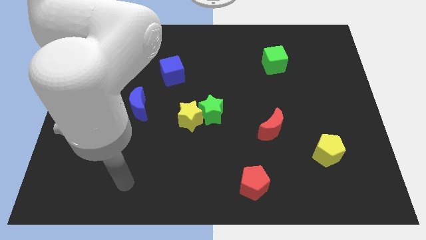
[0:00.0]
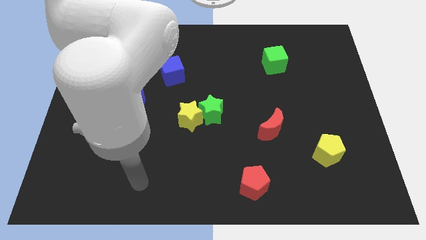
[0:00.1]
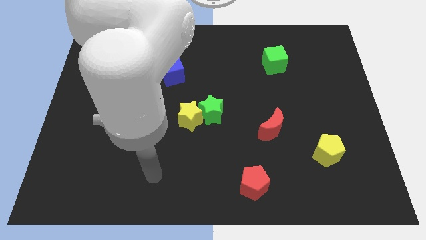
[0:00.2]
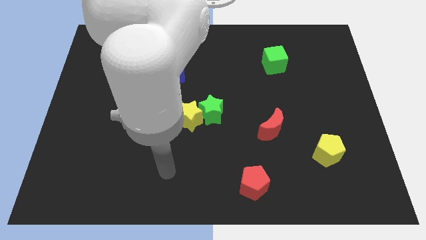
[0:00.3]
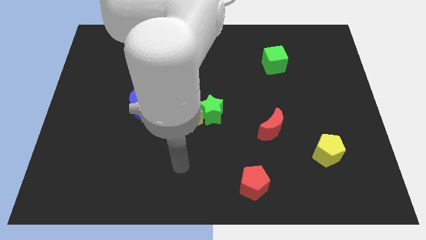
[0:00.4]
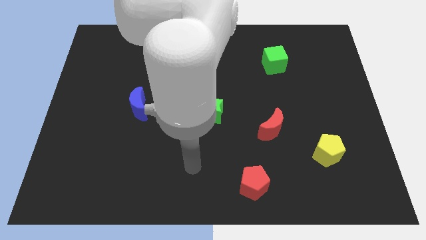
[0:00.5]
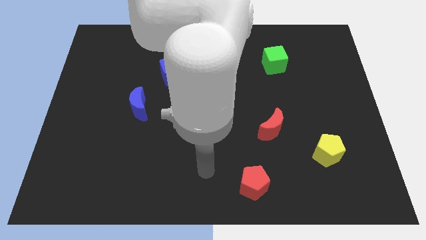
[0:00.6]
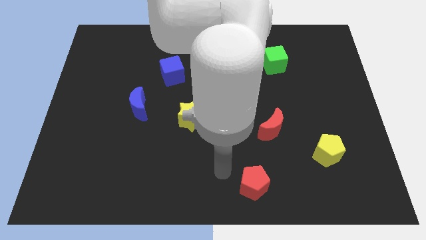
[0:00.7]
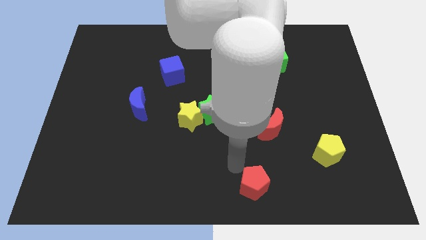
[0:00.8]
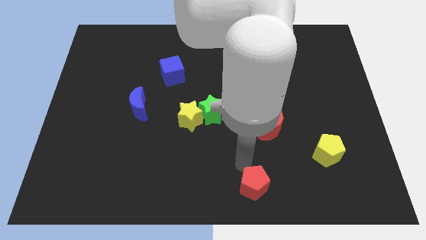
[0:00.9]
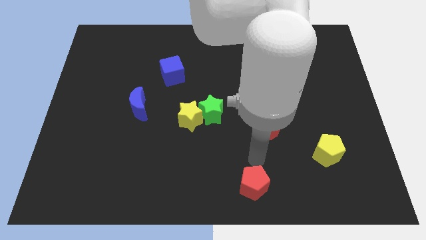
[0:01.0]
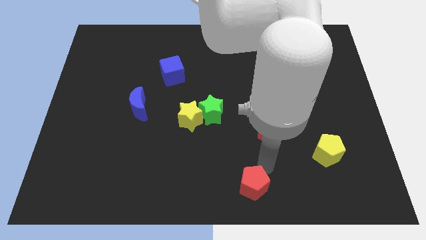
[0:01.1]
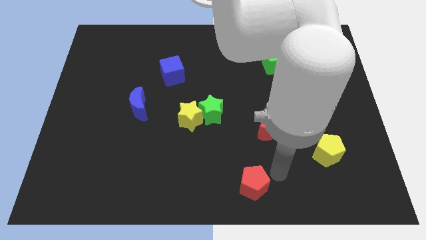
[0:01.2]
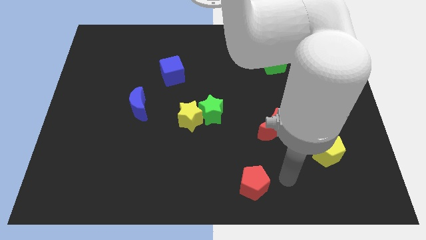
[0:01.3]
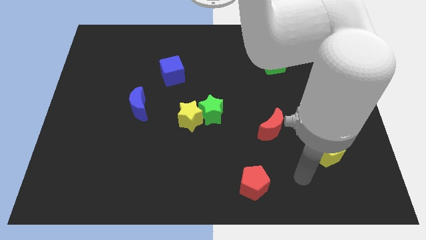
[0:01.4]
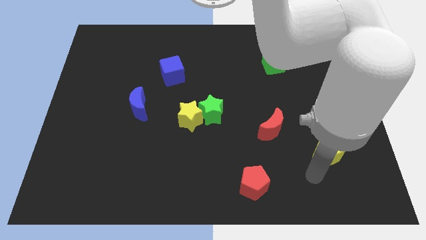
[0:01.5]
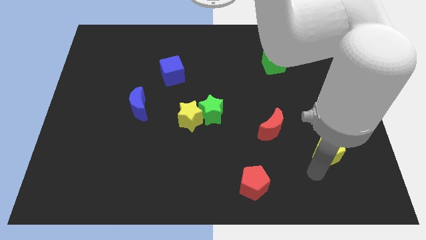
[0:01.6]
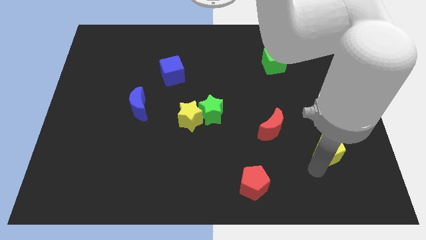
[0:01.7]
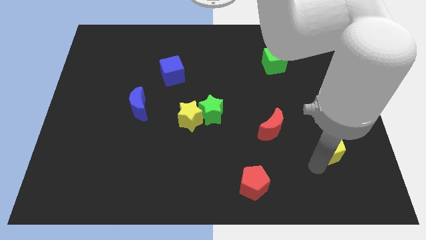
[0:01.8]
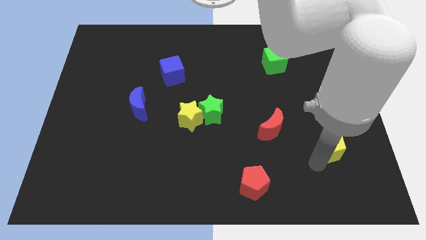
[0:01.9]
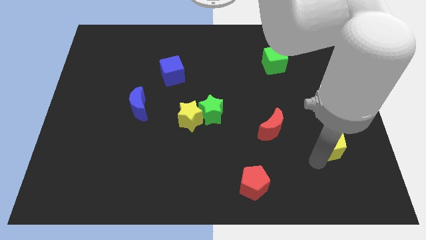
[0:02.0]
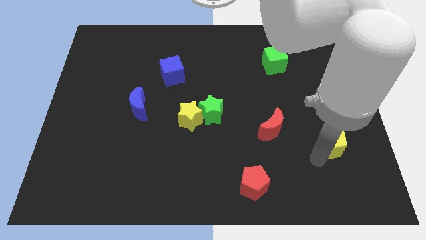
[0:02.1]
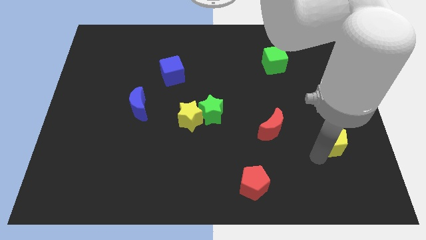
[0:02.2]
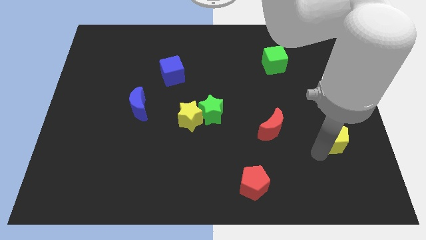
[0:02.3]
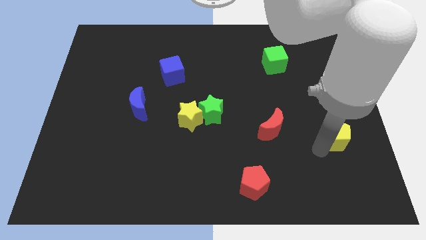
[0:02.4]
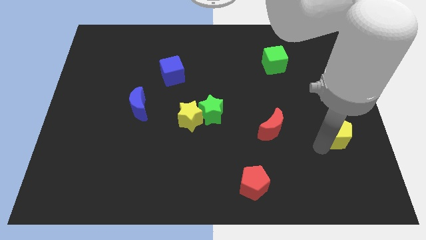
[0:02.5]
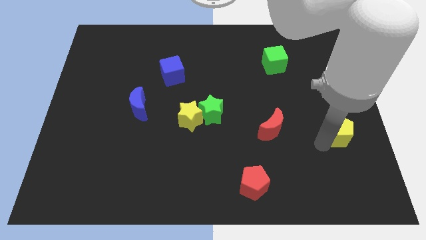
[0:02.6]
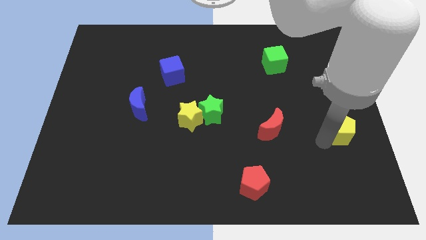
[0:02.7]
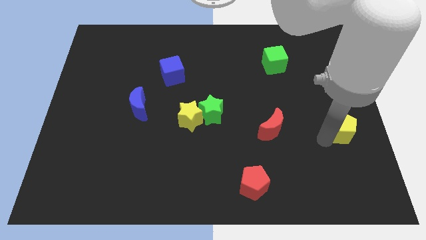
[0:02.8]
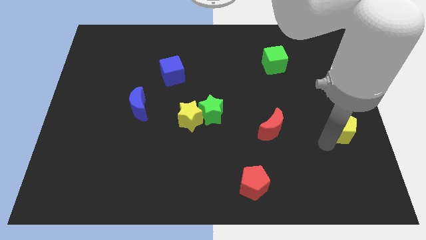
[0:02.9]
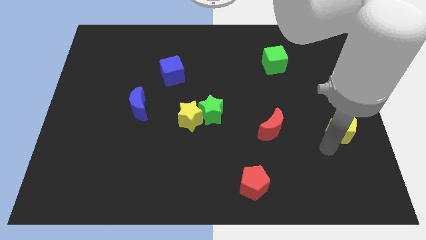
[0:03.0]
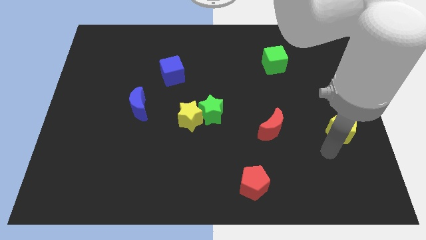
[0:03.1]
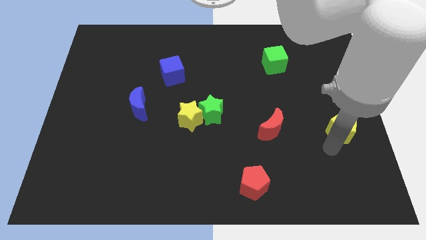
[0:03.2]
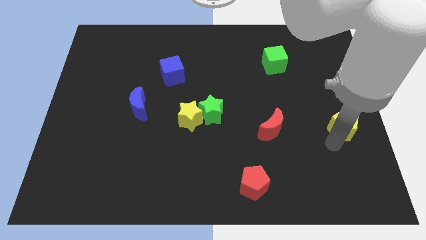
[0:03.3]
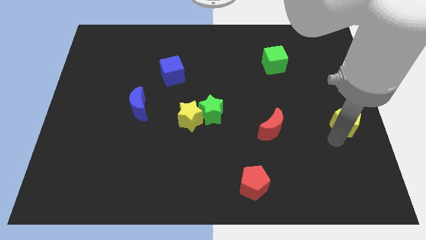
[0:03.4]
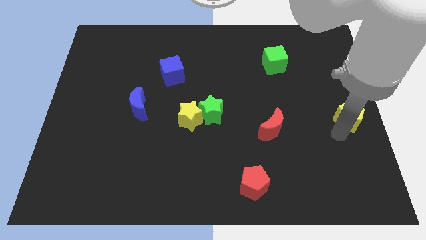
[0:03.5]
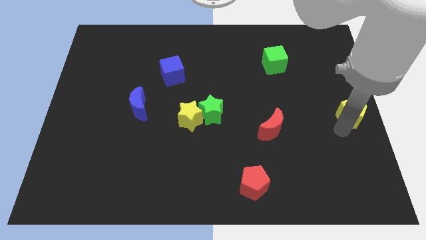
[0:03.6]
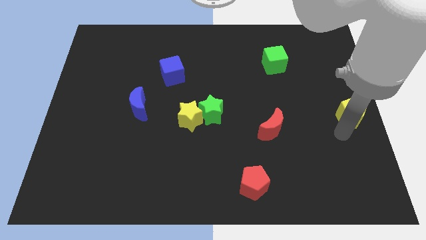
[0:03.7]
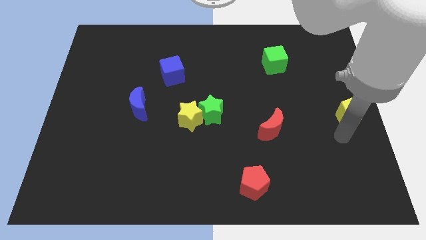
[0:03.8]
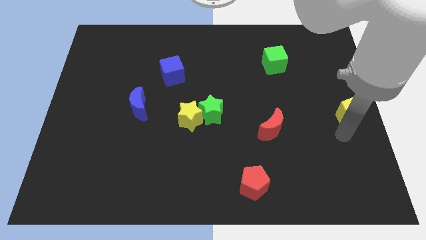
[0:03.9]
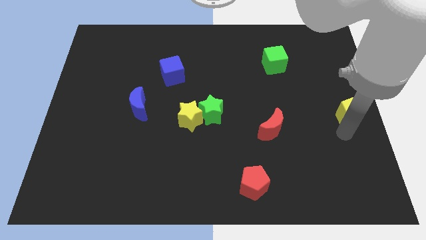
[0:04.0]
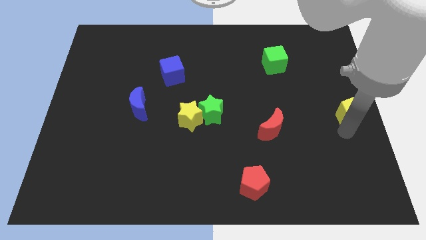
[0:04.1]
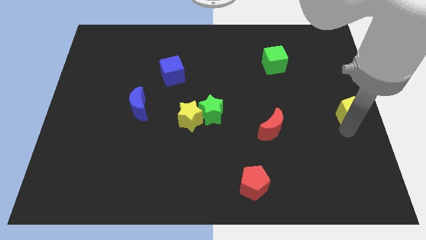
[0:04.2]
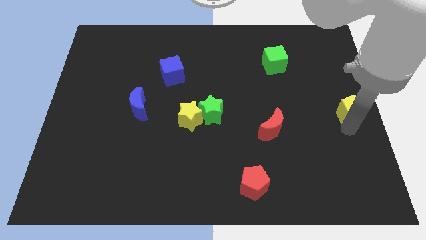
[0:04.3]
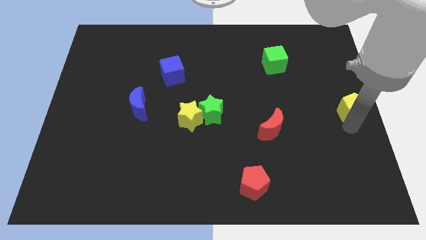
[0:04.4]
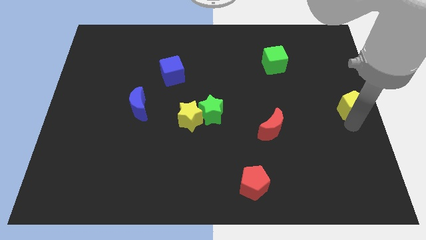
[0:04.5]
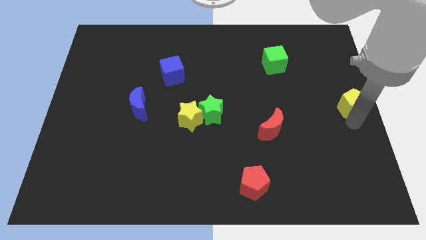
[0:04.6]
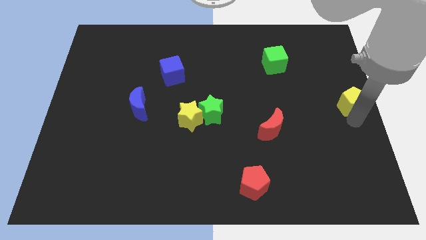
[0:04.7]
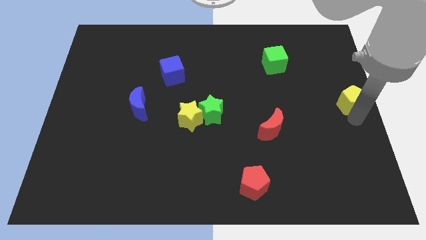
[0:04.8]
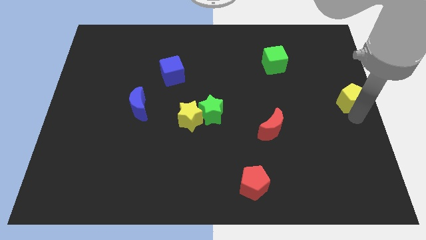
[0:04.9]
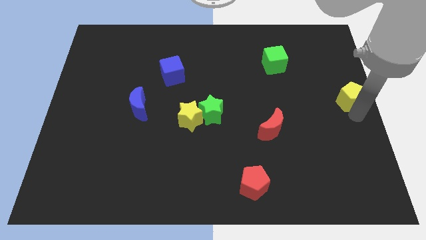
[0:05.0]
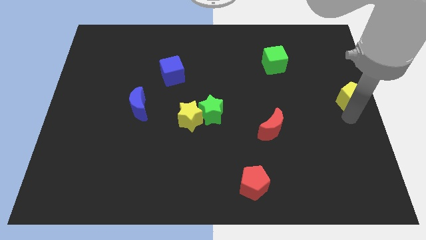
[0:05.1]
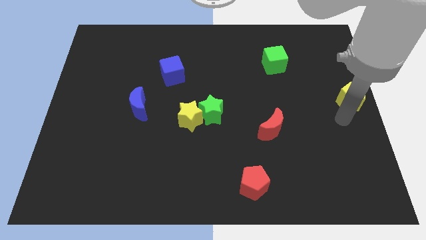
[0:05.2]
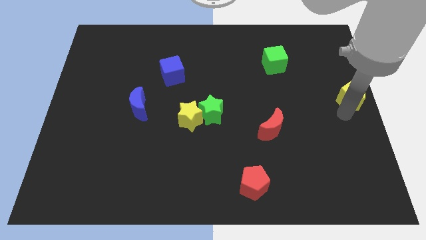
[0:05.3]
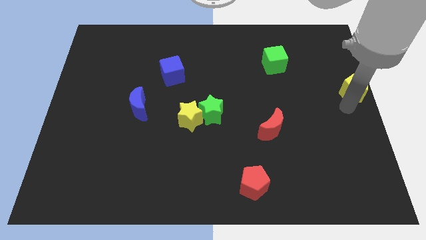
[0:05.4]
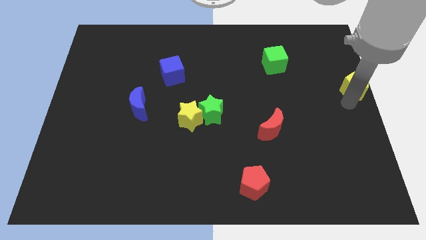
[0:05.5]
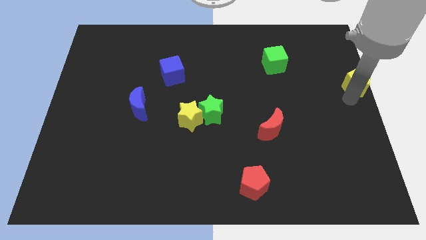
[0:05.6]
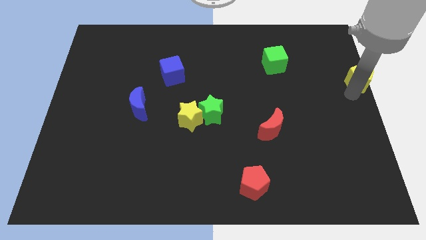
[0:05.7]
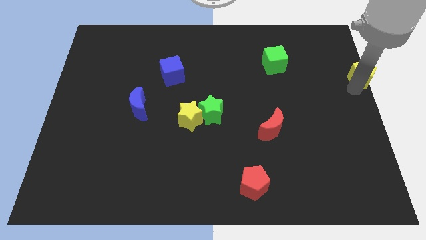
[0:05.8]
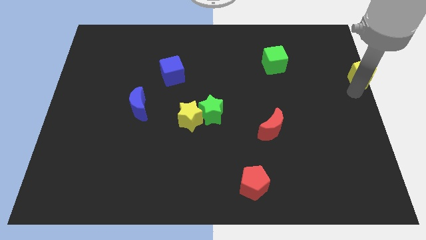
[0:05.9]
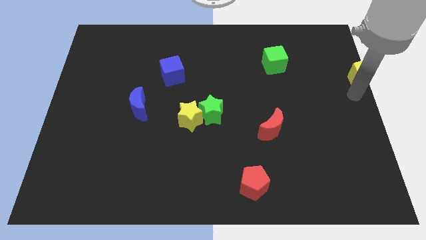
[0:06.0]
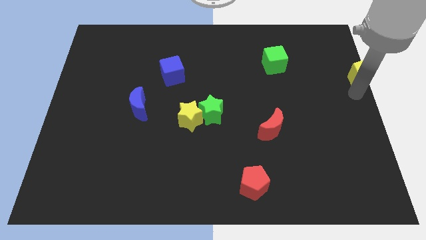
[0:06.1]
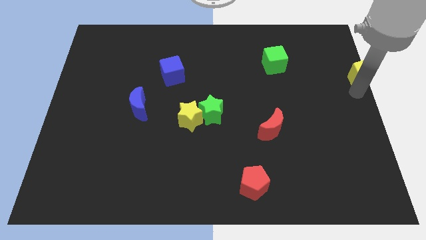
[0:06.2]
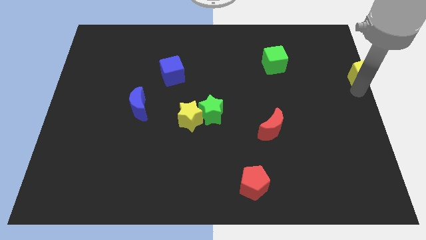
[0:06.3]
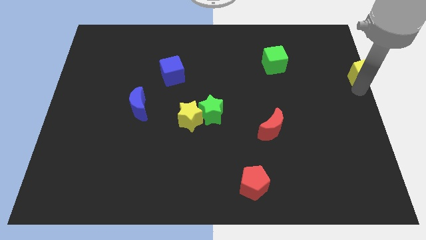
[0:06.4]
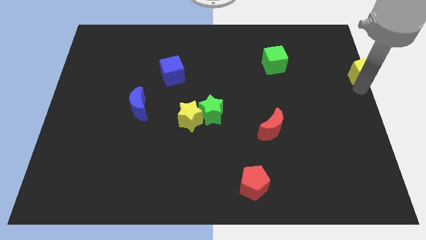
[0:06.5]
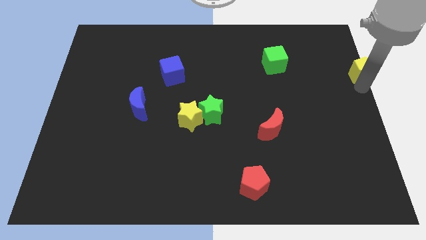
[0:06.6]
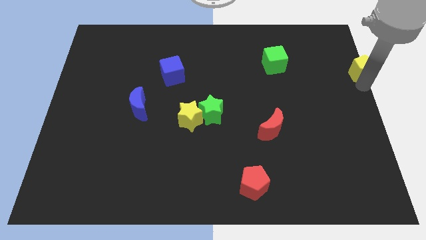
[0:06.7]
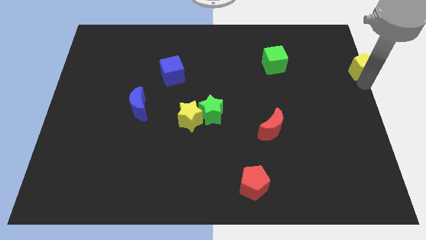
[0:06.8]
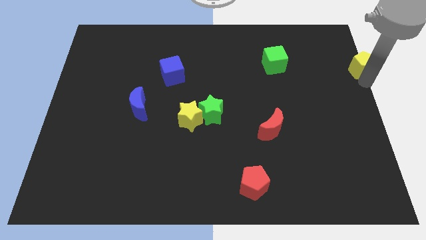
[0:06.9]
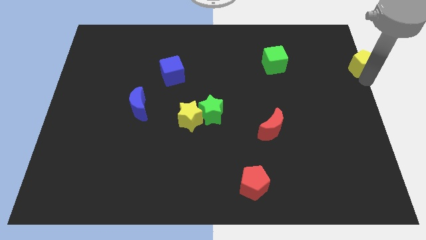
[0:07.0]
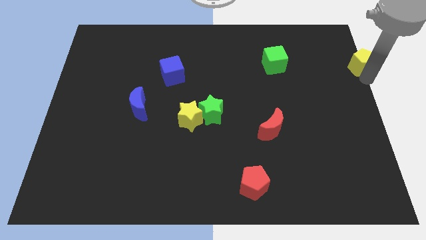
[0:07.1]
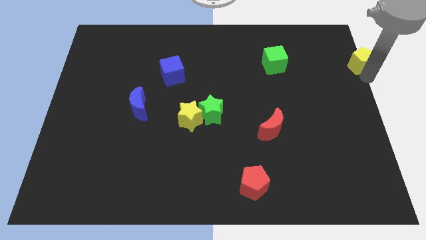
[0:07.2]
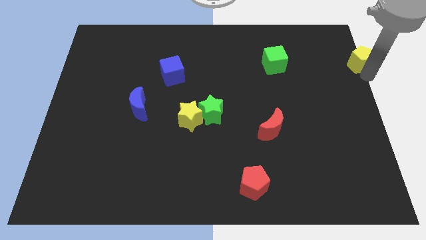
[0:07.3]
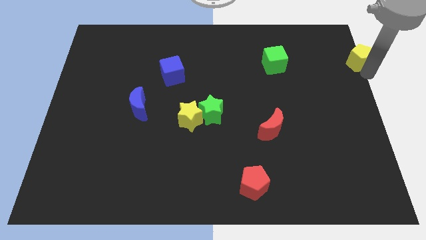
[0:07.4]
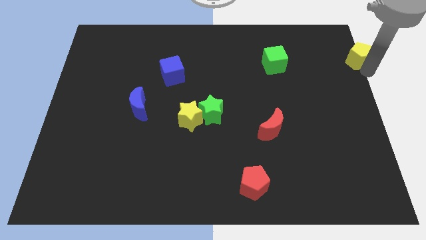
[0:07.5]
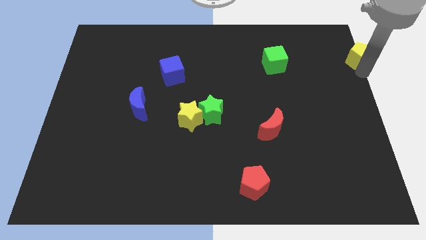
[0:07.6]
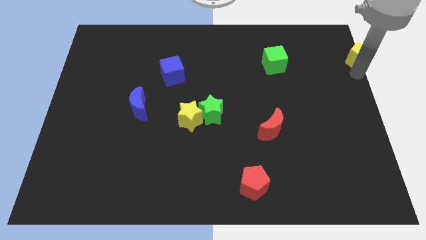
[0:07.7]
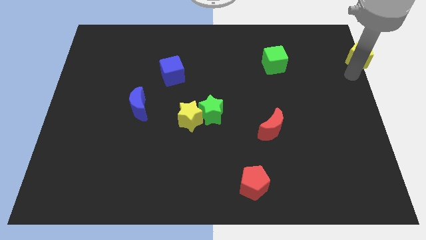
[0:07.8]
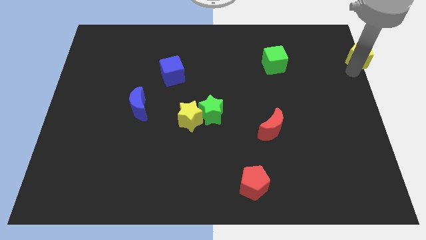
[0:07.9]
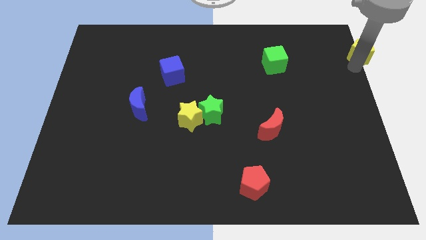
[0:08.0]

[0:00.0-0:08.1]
slide the yellow pentagon to the top right

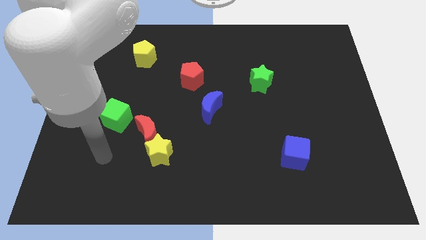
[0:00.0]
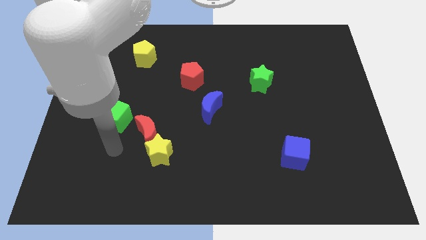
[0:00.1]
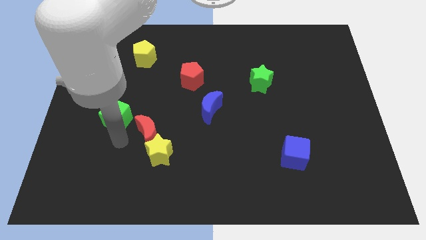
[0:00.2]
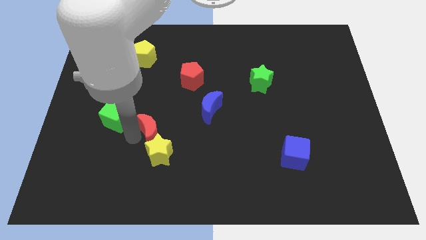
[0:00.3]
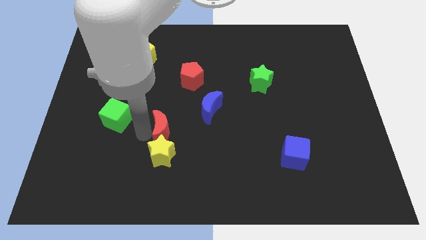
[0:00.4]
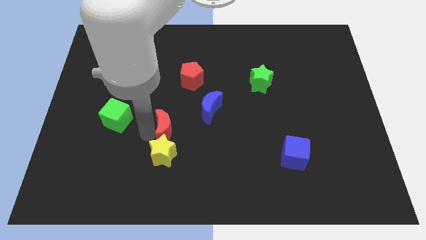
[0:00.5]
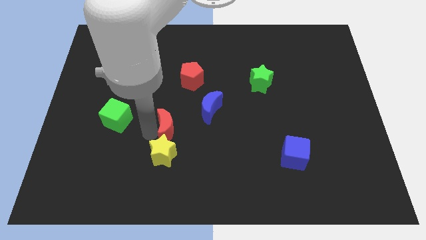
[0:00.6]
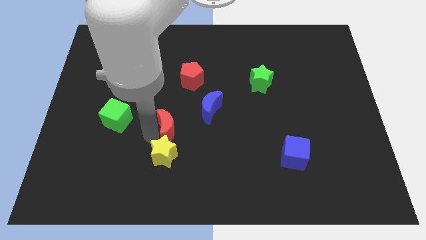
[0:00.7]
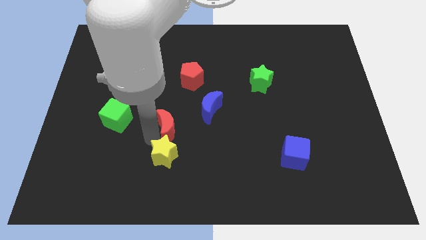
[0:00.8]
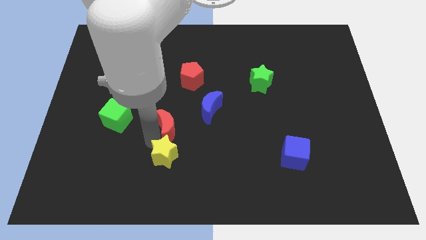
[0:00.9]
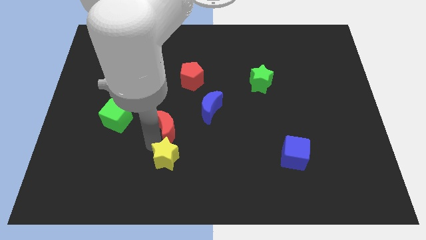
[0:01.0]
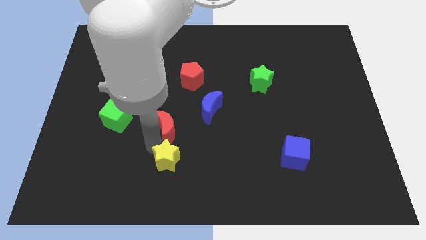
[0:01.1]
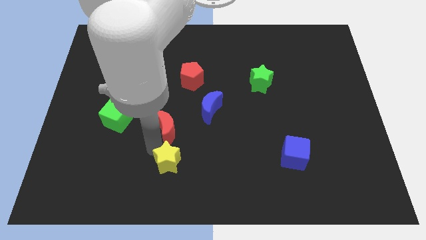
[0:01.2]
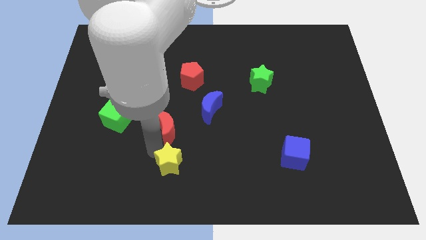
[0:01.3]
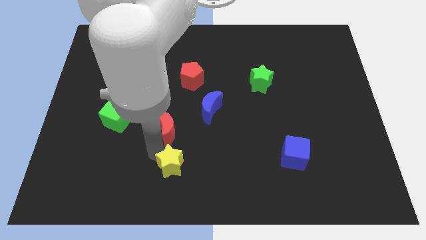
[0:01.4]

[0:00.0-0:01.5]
slide the yellow star to the bottom
